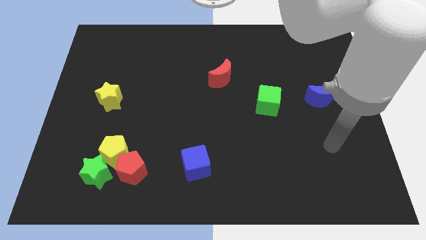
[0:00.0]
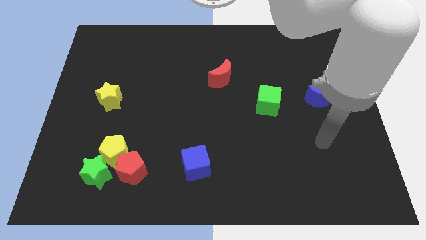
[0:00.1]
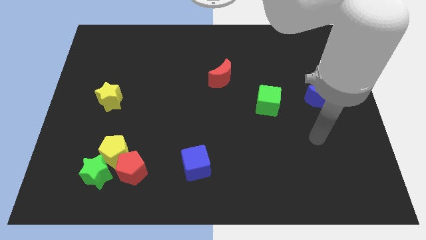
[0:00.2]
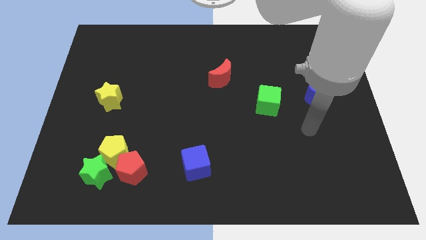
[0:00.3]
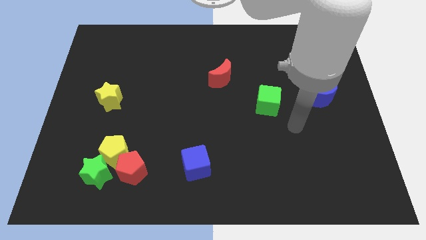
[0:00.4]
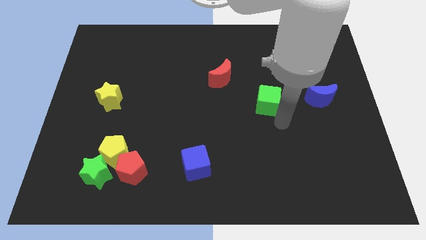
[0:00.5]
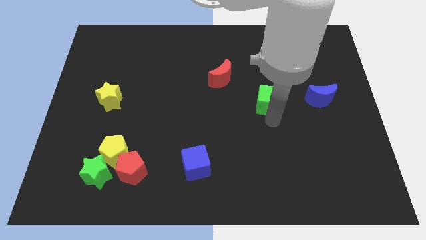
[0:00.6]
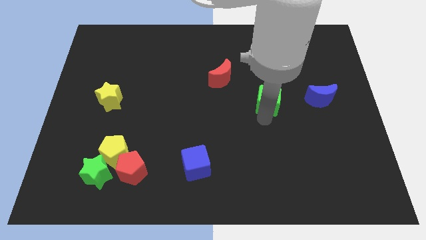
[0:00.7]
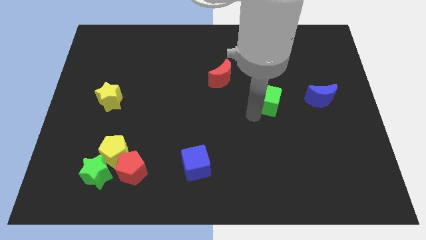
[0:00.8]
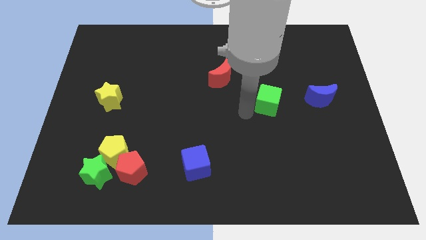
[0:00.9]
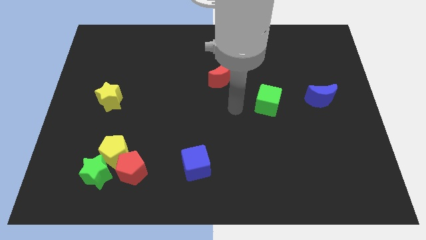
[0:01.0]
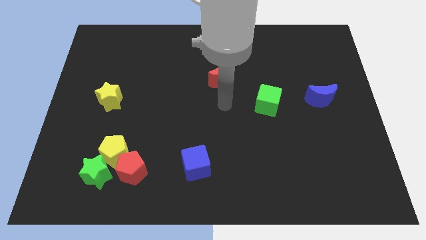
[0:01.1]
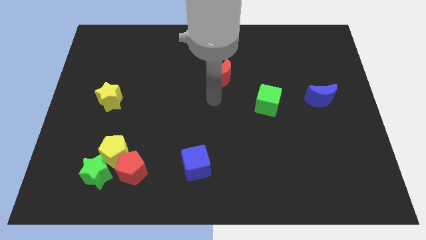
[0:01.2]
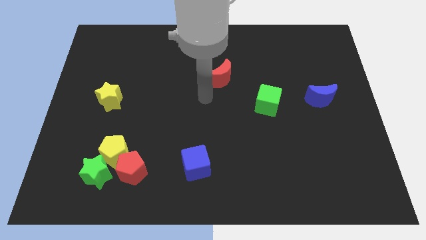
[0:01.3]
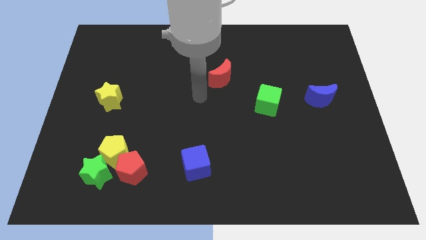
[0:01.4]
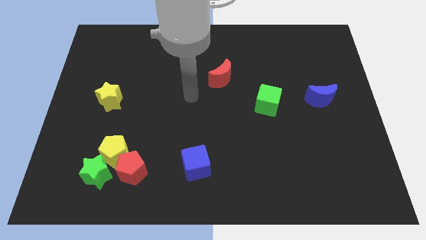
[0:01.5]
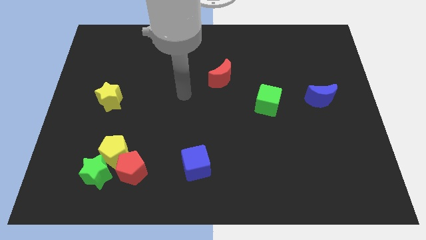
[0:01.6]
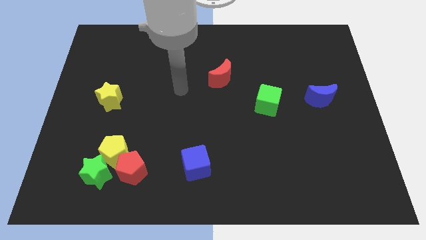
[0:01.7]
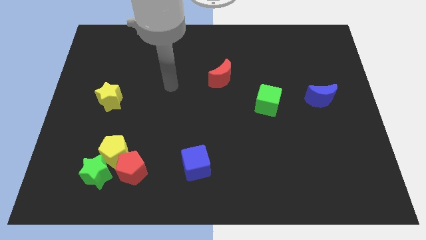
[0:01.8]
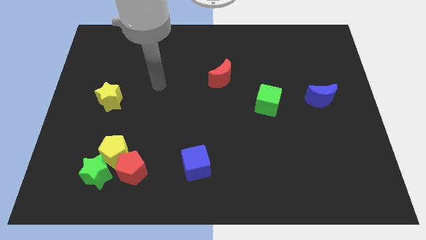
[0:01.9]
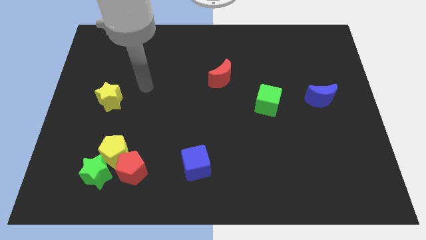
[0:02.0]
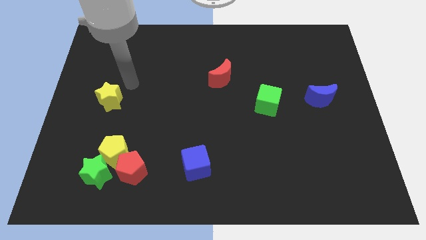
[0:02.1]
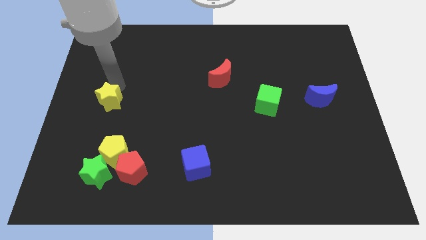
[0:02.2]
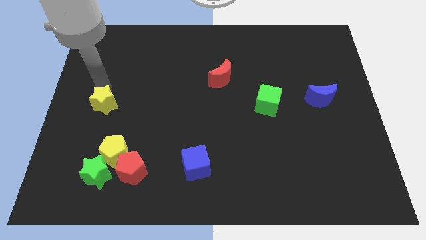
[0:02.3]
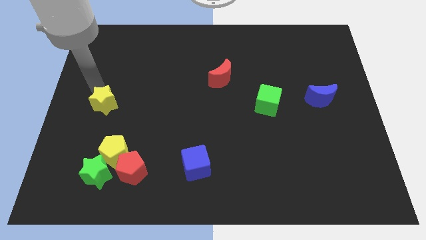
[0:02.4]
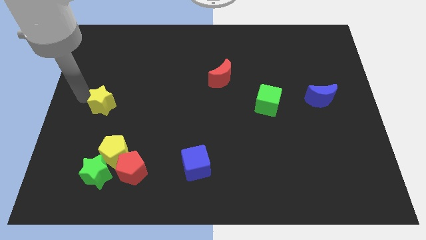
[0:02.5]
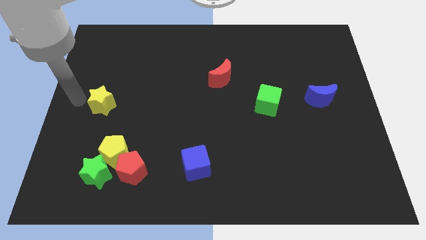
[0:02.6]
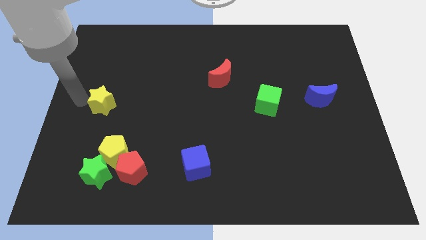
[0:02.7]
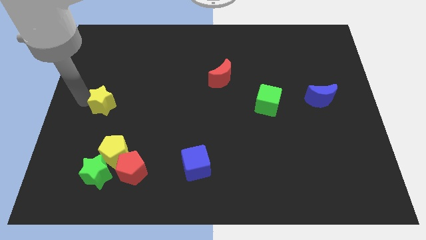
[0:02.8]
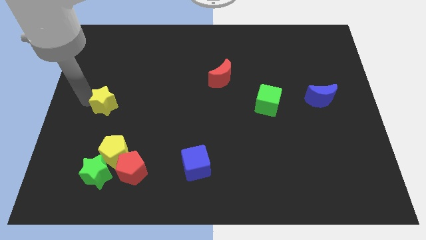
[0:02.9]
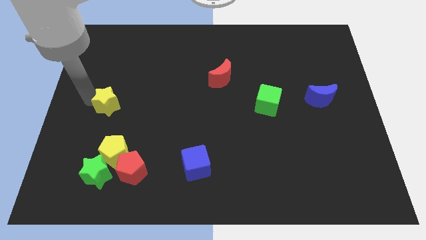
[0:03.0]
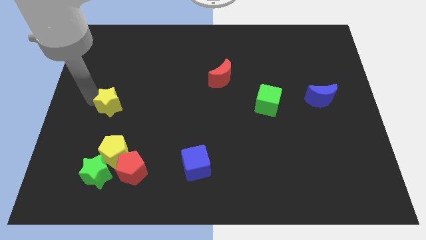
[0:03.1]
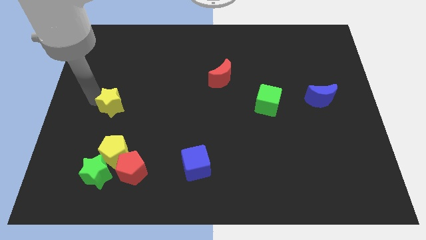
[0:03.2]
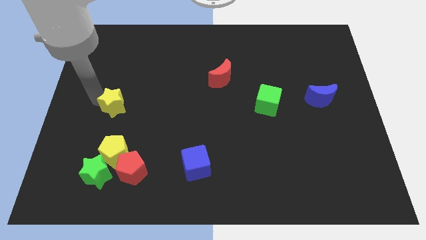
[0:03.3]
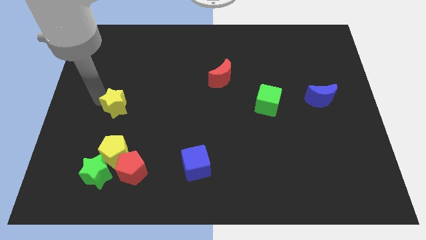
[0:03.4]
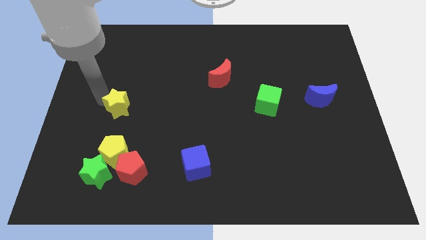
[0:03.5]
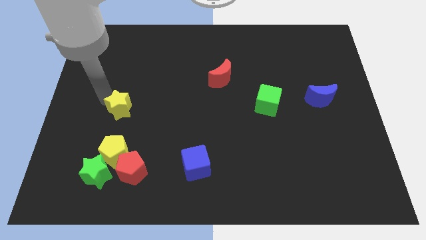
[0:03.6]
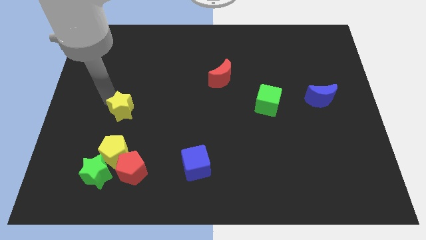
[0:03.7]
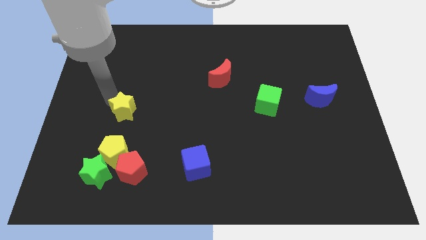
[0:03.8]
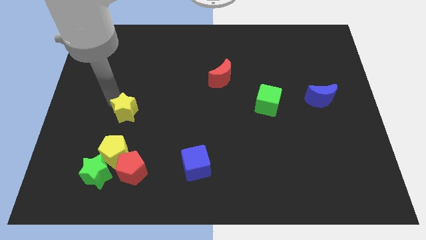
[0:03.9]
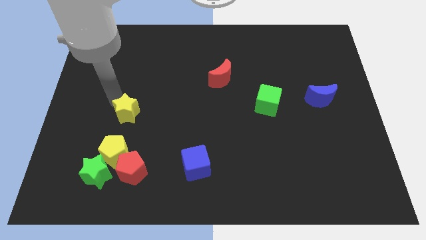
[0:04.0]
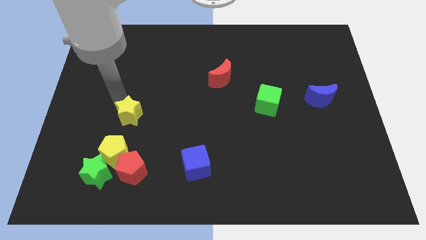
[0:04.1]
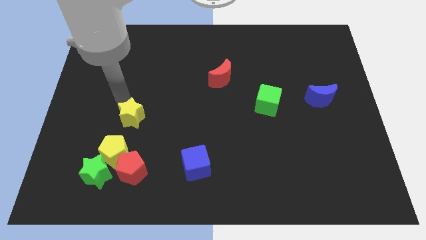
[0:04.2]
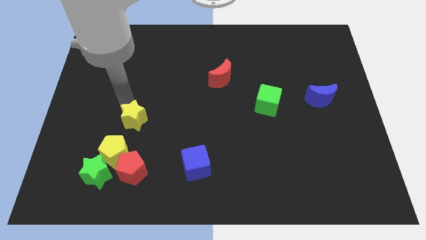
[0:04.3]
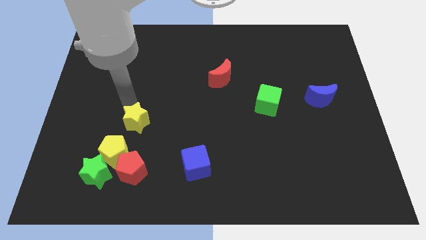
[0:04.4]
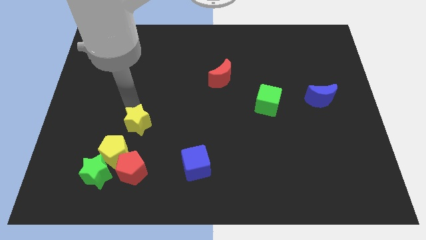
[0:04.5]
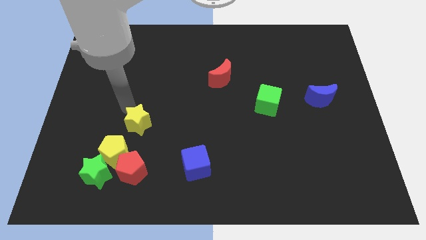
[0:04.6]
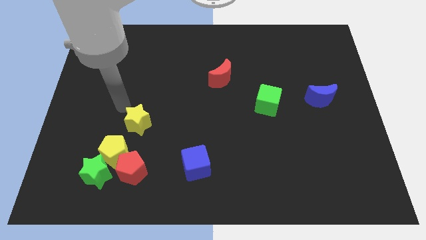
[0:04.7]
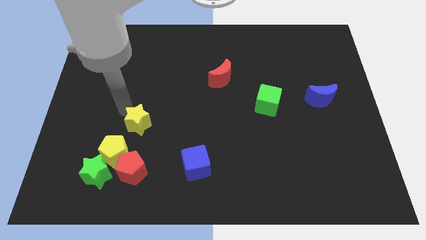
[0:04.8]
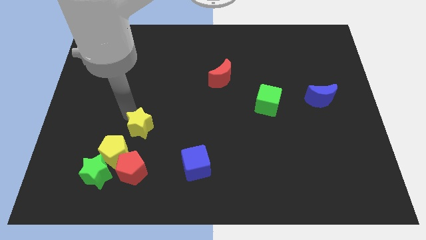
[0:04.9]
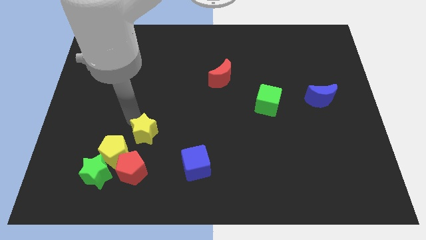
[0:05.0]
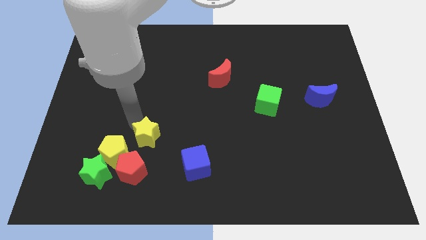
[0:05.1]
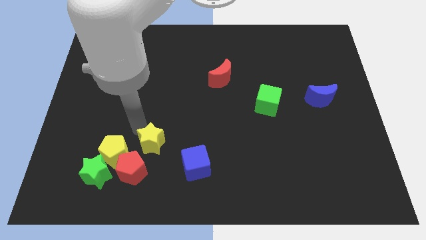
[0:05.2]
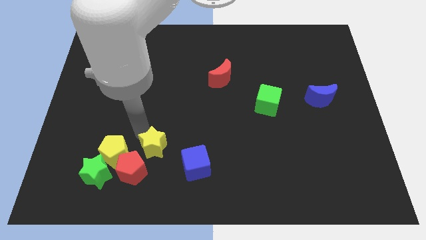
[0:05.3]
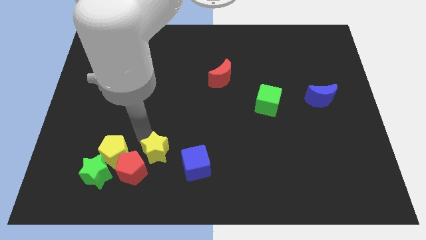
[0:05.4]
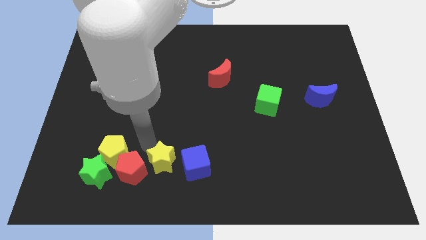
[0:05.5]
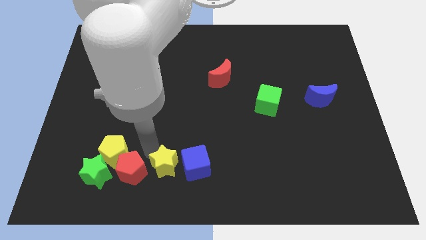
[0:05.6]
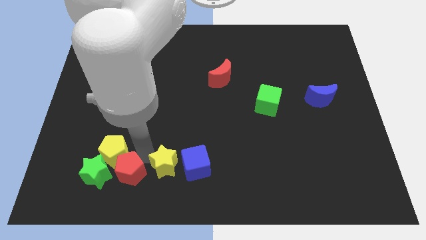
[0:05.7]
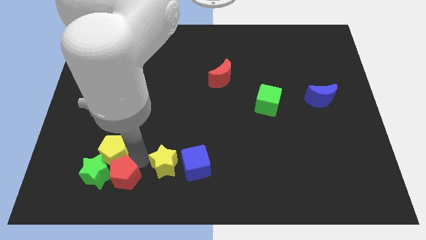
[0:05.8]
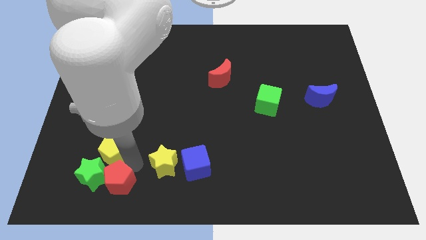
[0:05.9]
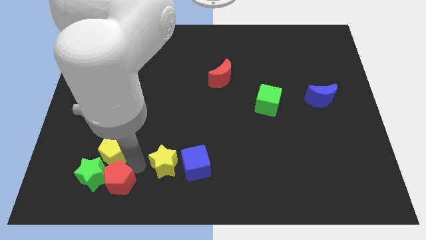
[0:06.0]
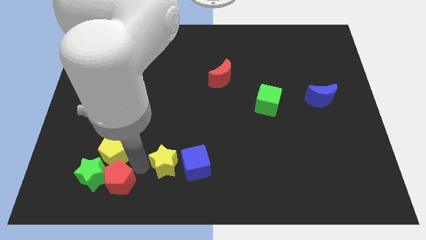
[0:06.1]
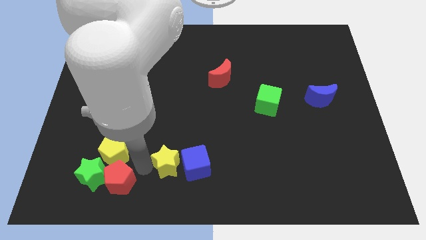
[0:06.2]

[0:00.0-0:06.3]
put the yellow star next to the blue cube

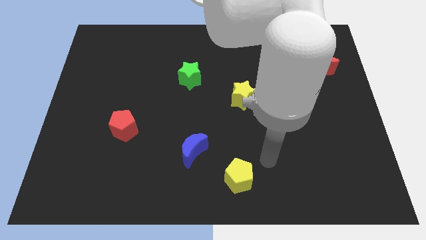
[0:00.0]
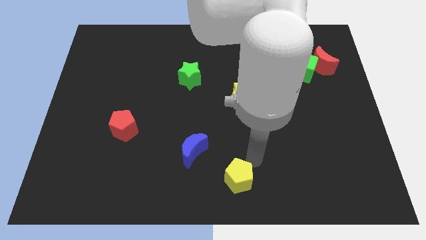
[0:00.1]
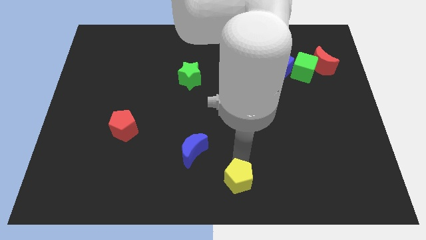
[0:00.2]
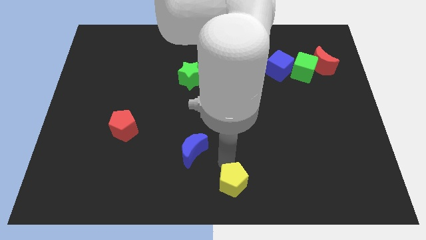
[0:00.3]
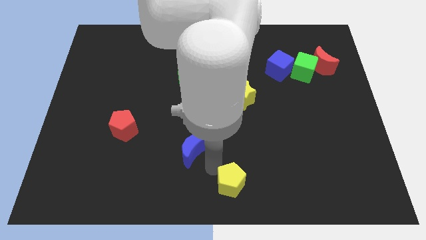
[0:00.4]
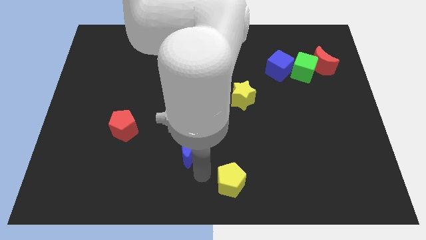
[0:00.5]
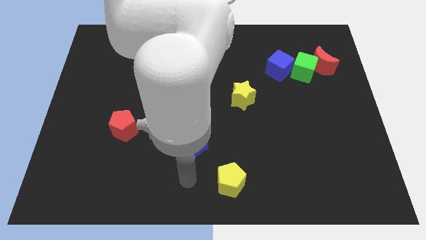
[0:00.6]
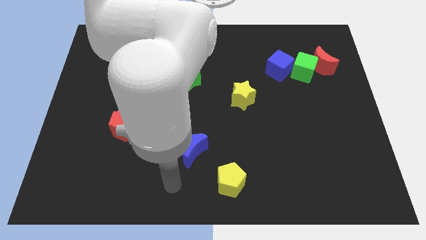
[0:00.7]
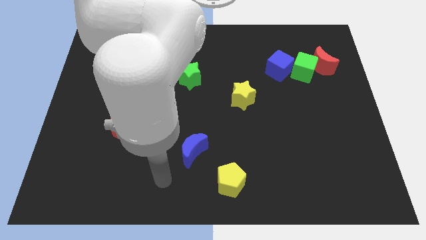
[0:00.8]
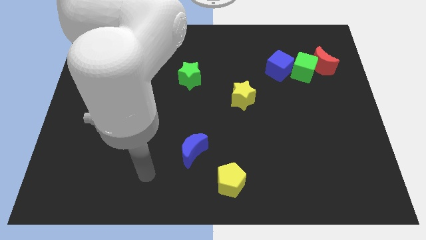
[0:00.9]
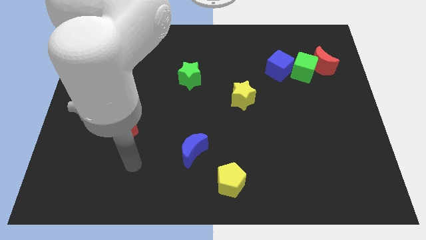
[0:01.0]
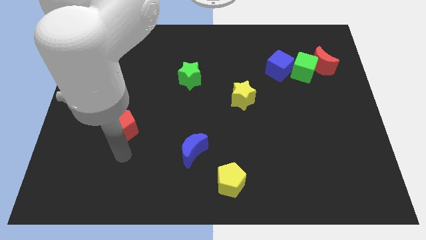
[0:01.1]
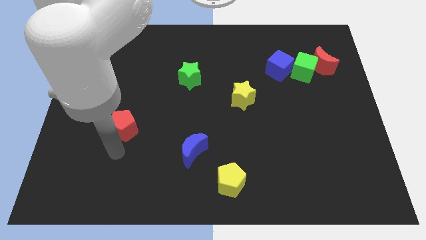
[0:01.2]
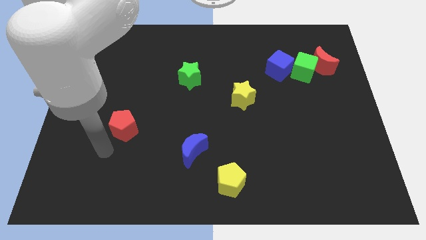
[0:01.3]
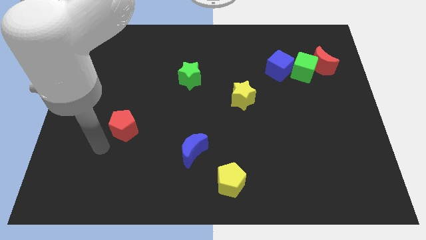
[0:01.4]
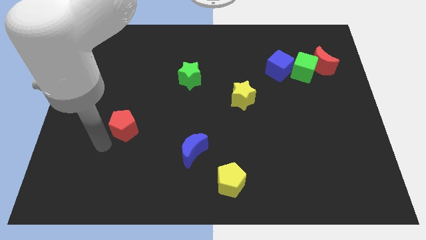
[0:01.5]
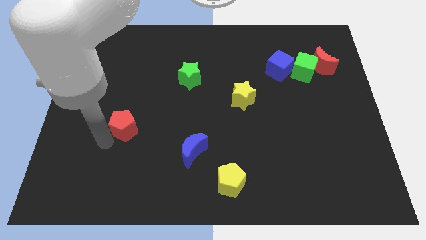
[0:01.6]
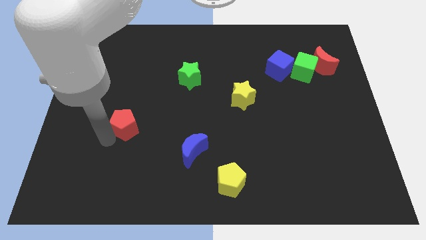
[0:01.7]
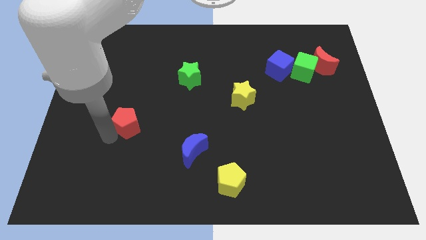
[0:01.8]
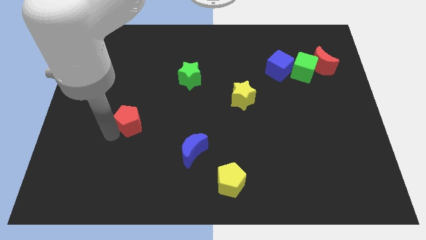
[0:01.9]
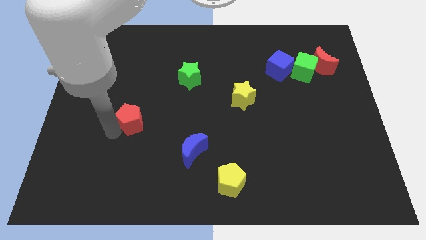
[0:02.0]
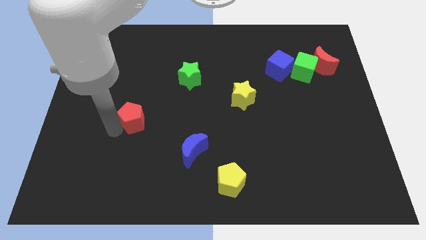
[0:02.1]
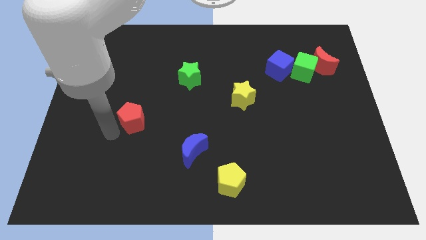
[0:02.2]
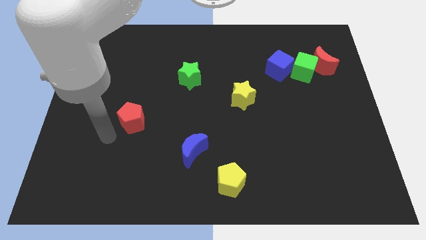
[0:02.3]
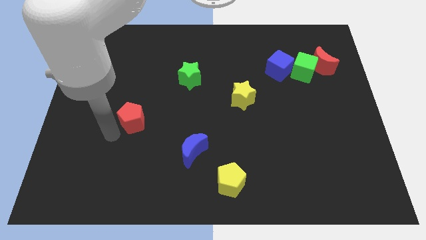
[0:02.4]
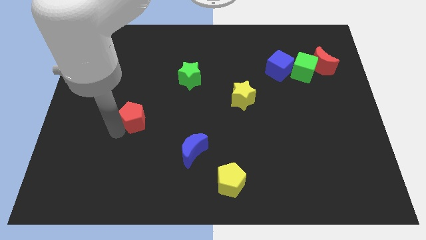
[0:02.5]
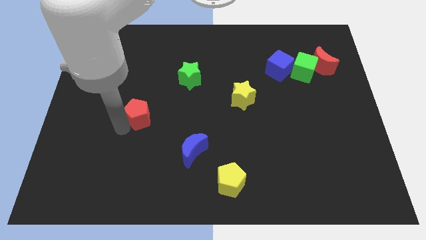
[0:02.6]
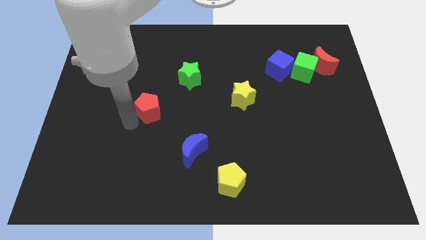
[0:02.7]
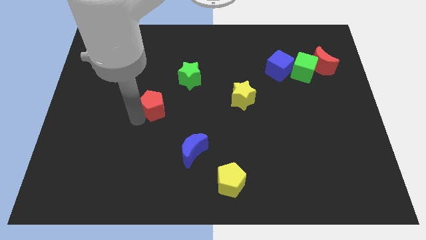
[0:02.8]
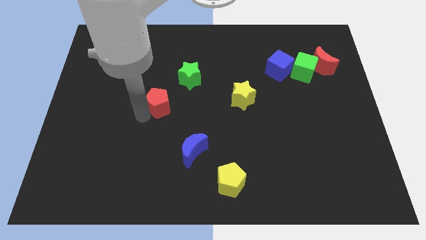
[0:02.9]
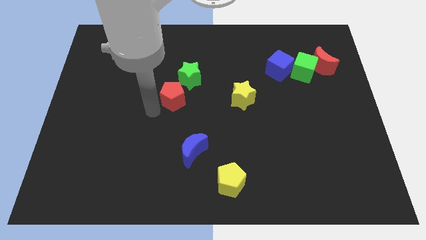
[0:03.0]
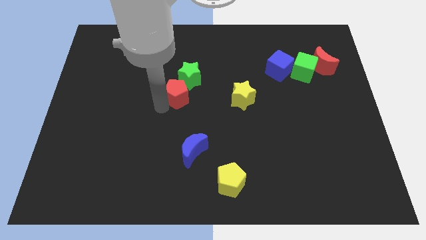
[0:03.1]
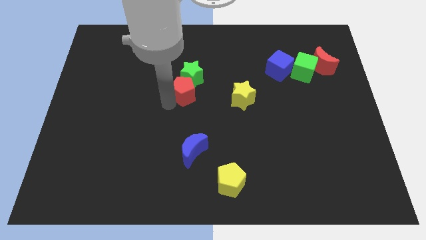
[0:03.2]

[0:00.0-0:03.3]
put the red pentagon to the green star
